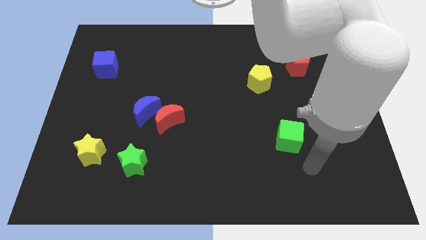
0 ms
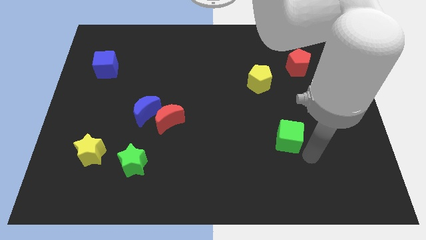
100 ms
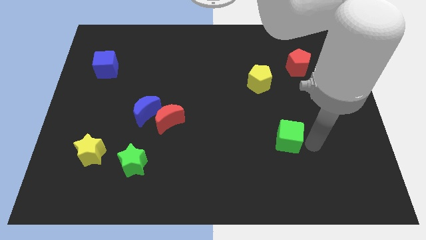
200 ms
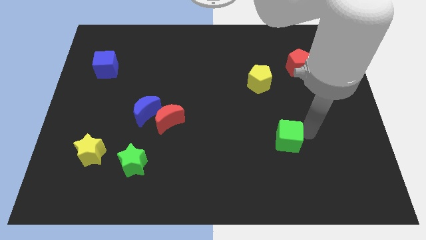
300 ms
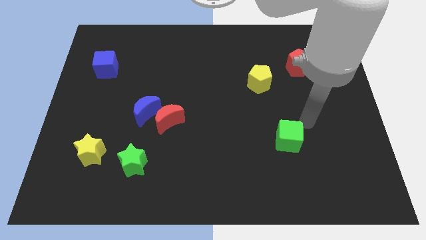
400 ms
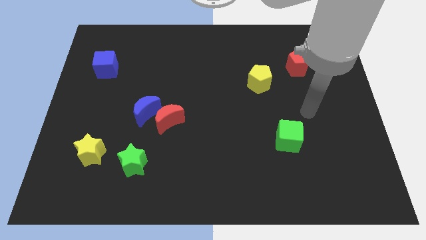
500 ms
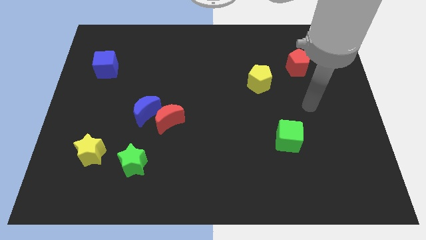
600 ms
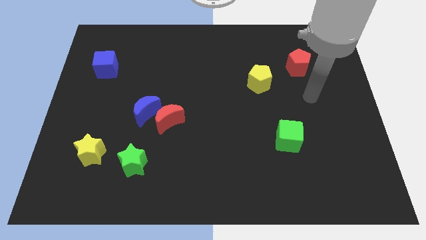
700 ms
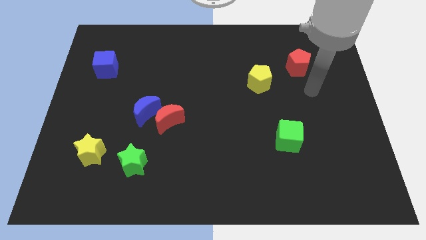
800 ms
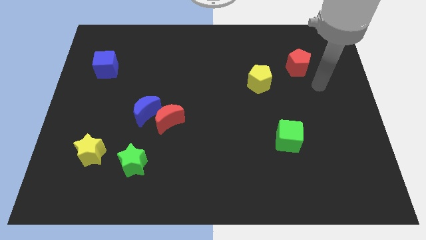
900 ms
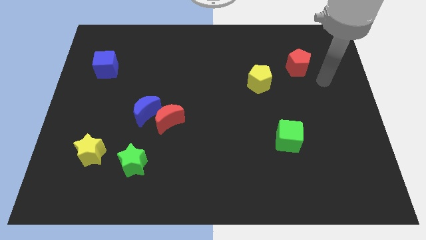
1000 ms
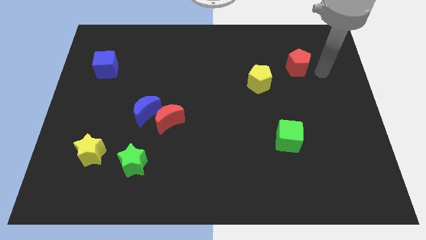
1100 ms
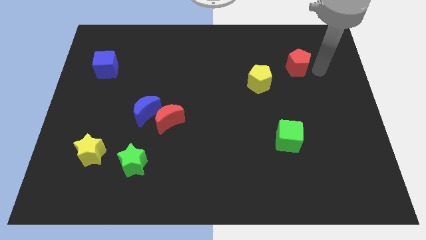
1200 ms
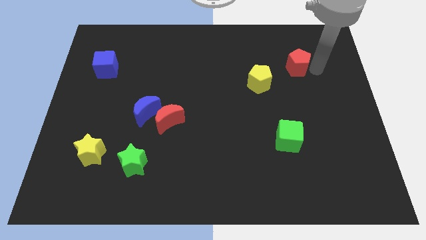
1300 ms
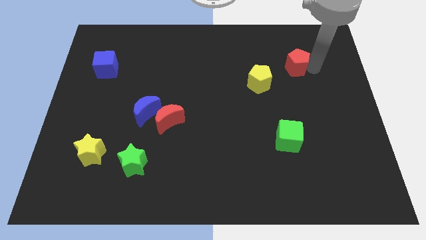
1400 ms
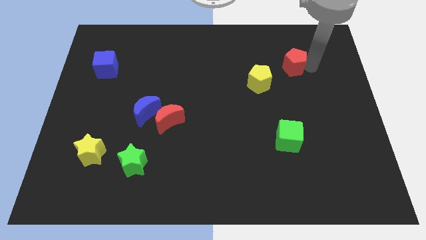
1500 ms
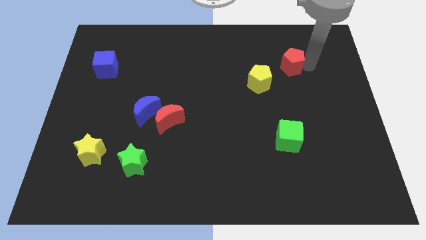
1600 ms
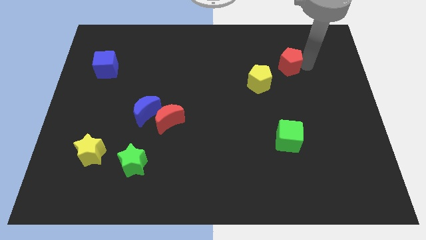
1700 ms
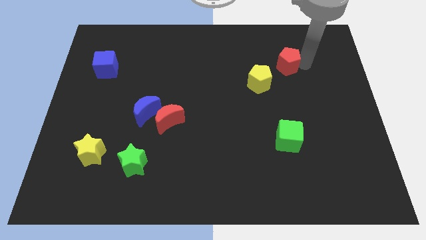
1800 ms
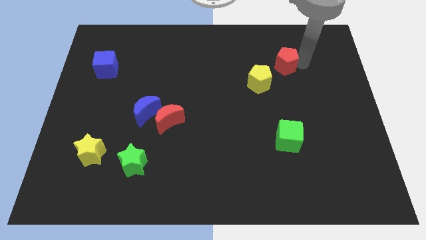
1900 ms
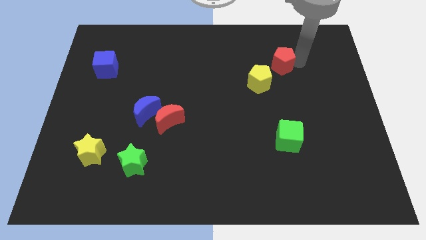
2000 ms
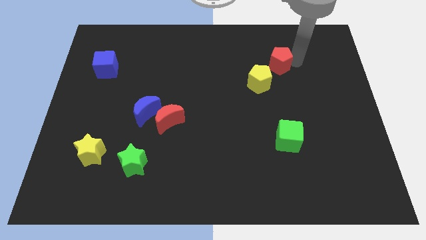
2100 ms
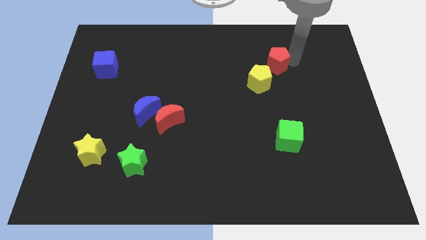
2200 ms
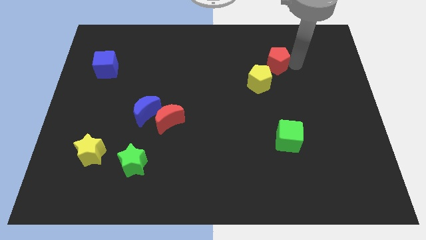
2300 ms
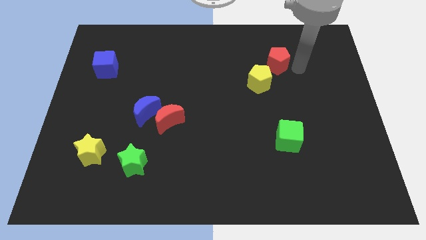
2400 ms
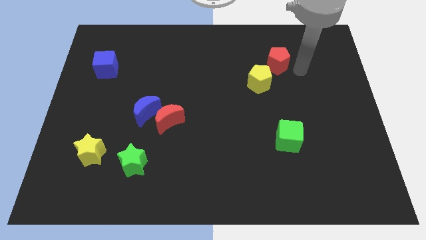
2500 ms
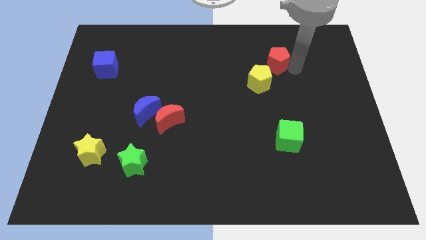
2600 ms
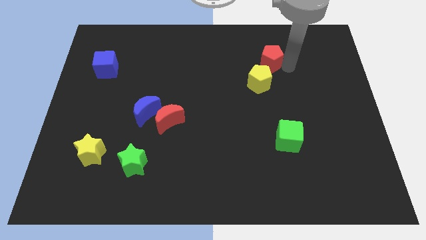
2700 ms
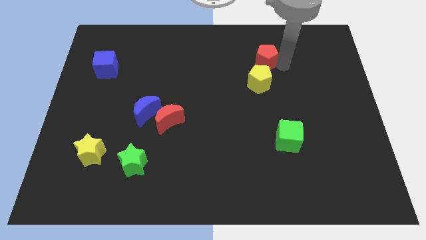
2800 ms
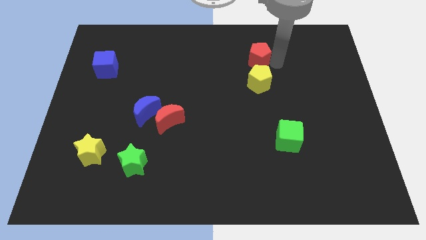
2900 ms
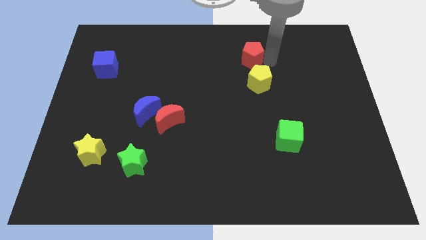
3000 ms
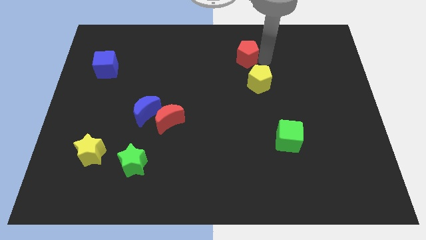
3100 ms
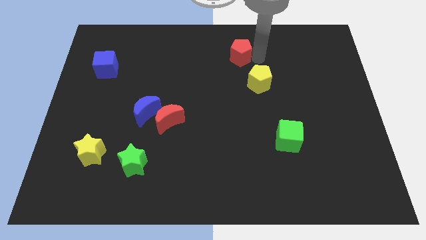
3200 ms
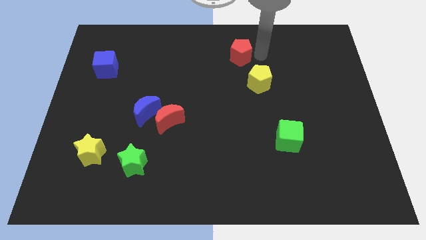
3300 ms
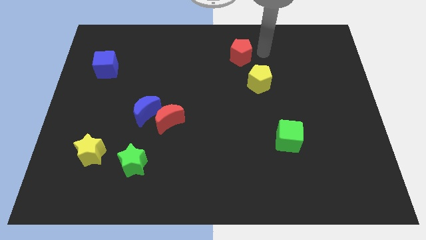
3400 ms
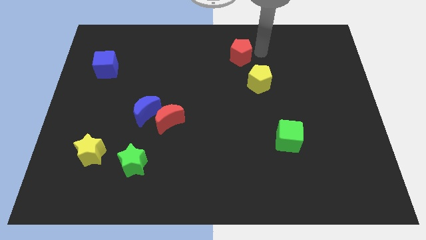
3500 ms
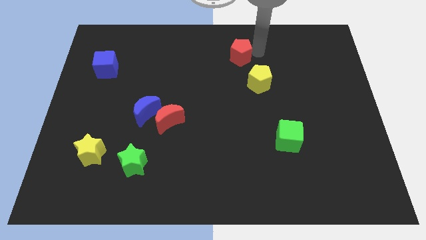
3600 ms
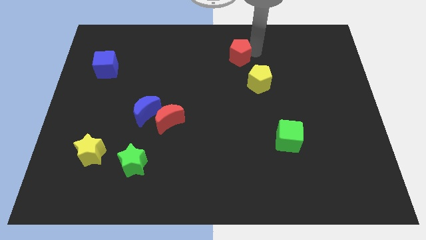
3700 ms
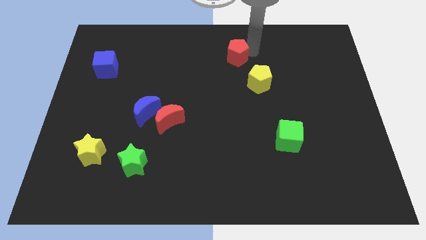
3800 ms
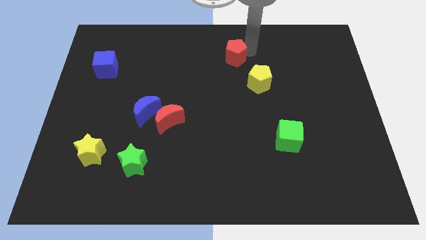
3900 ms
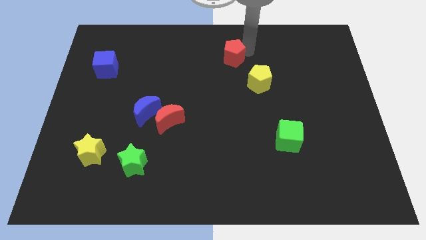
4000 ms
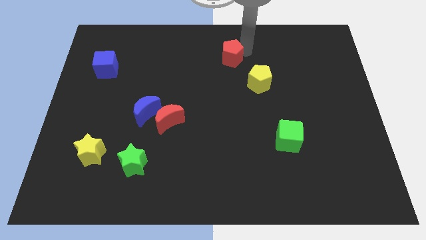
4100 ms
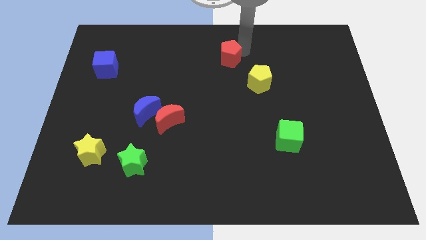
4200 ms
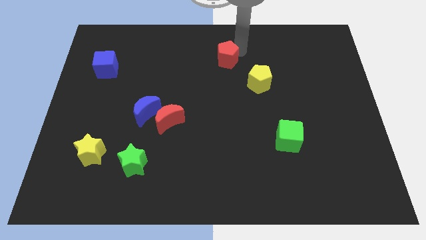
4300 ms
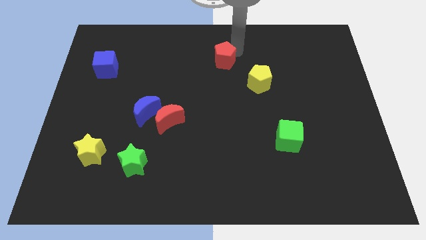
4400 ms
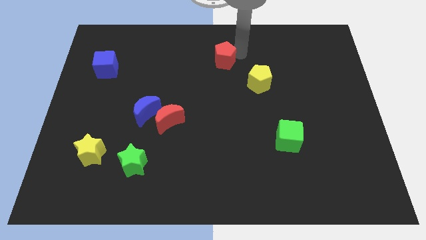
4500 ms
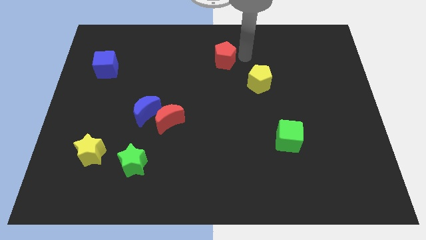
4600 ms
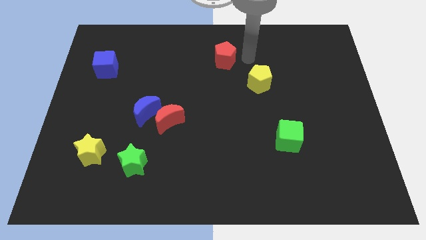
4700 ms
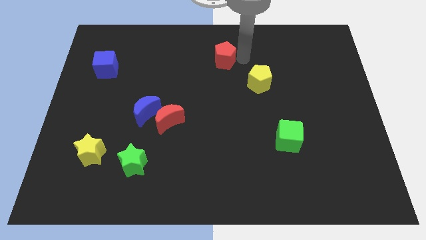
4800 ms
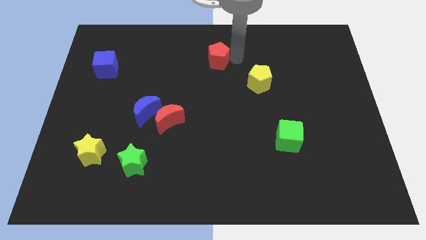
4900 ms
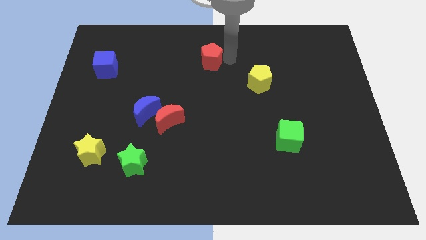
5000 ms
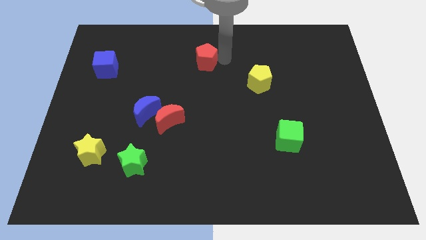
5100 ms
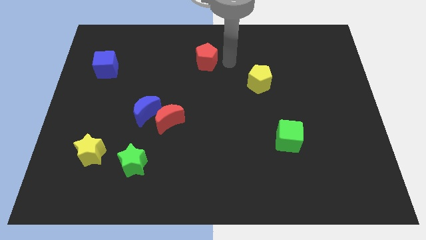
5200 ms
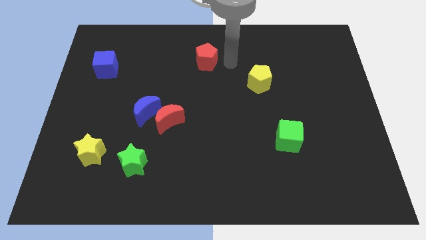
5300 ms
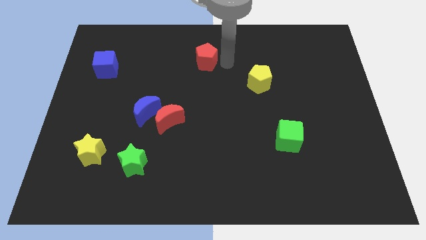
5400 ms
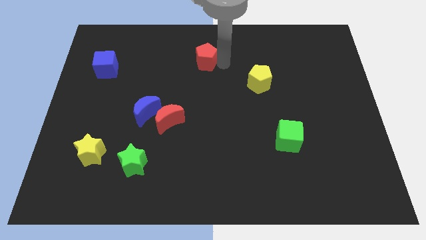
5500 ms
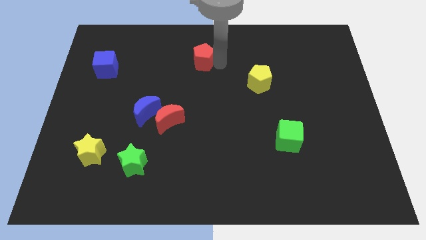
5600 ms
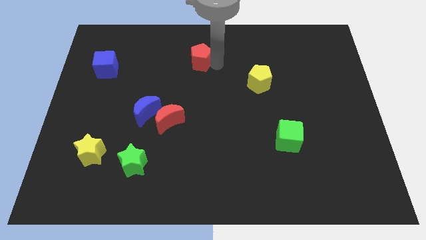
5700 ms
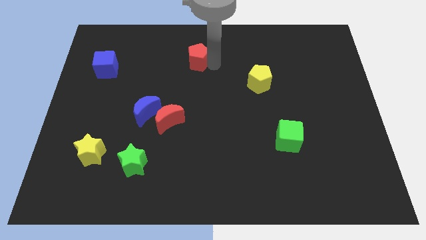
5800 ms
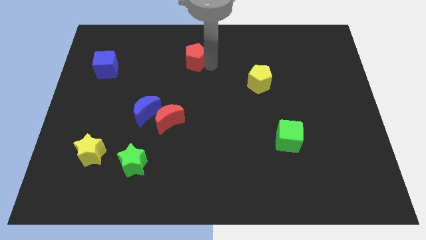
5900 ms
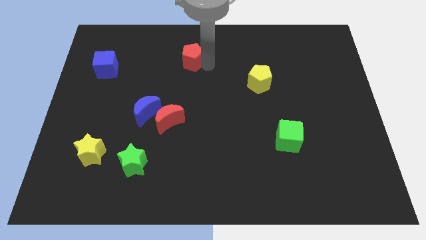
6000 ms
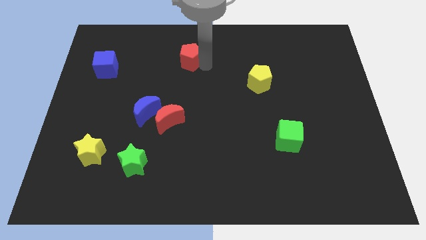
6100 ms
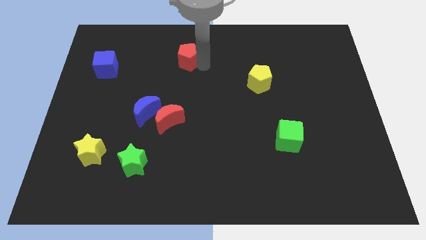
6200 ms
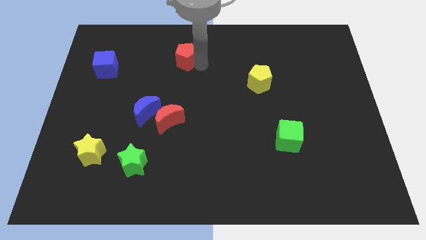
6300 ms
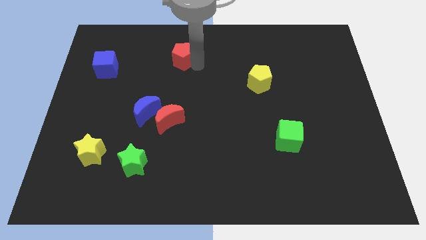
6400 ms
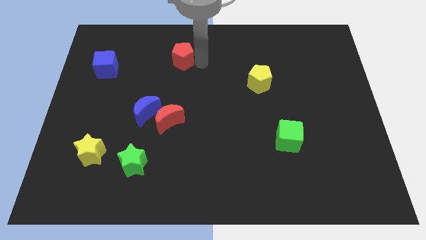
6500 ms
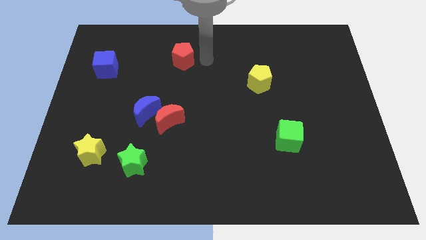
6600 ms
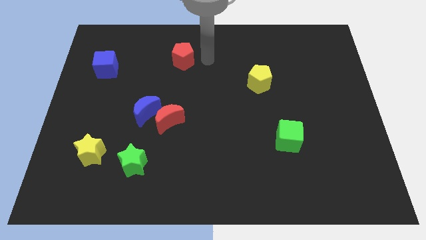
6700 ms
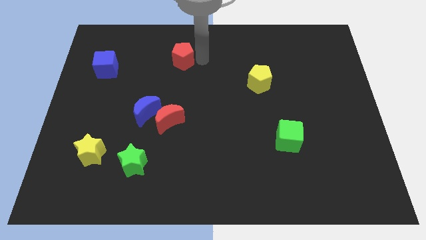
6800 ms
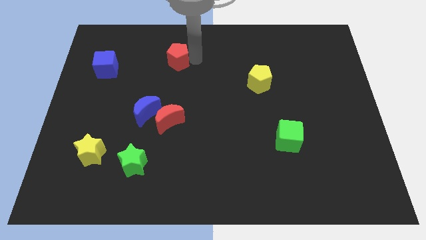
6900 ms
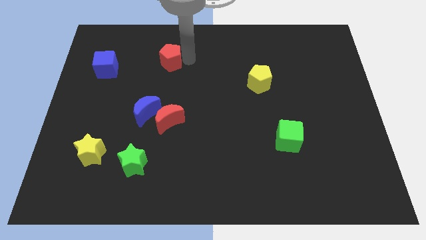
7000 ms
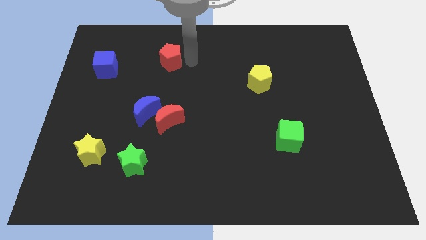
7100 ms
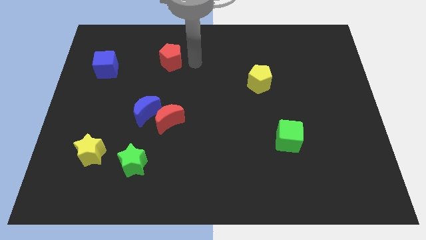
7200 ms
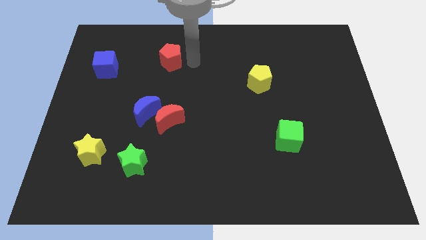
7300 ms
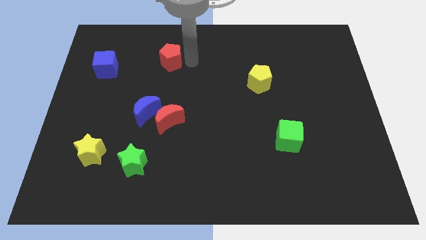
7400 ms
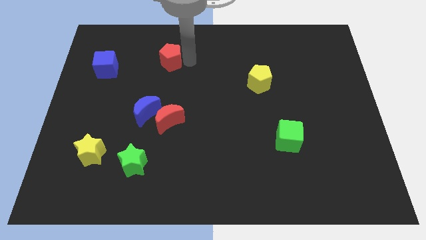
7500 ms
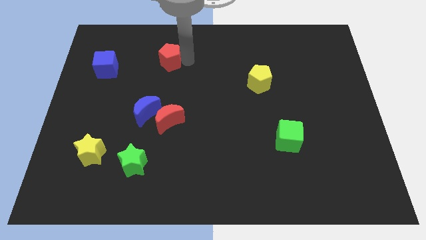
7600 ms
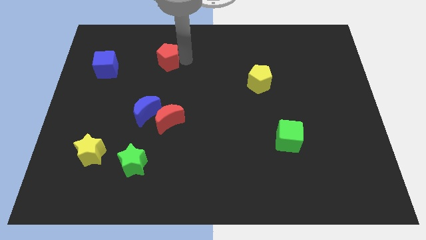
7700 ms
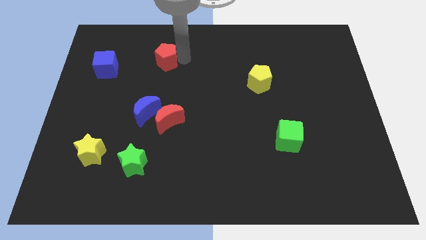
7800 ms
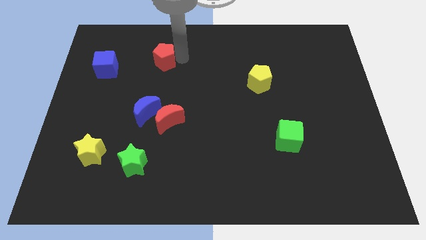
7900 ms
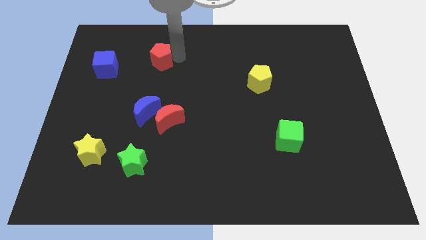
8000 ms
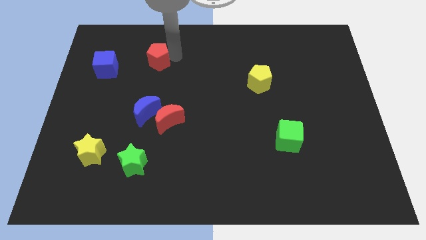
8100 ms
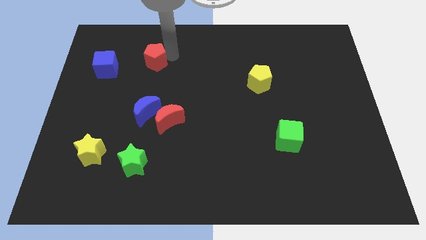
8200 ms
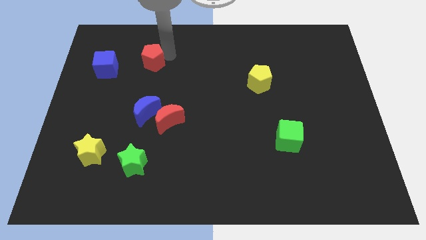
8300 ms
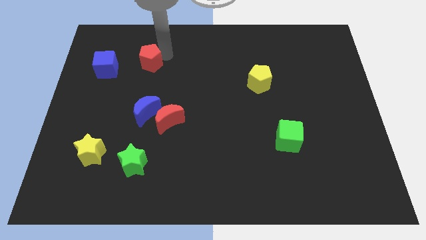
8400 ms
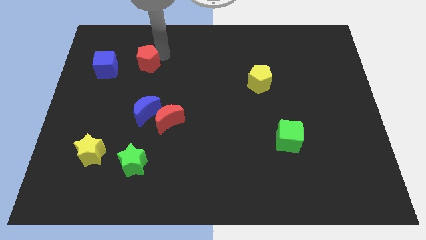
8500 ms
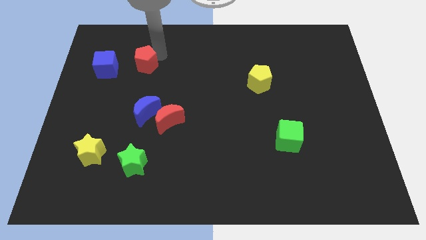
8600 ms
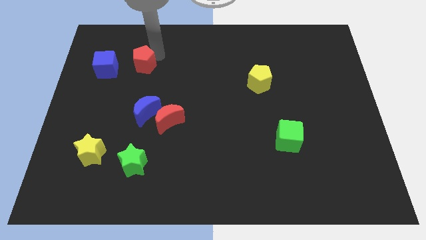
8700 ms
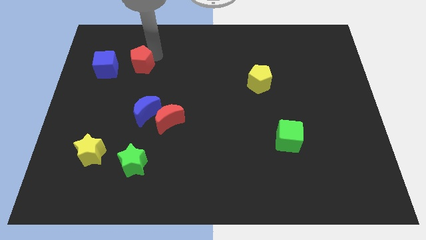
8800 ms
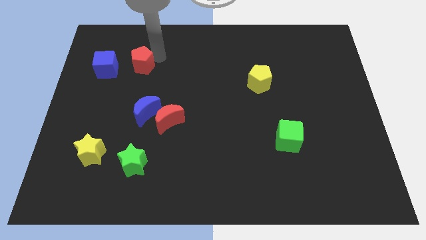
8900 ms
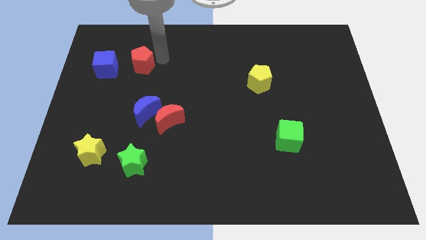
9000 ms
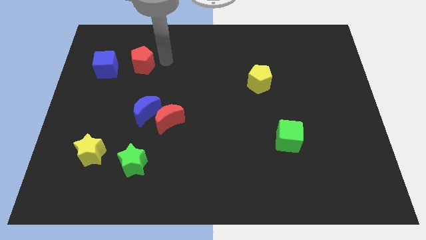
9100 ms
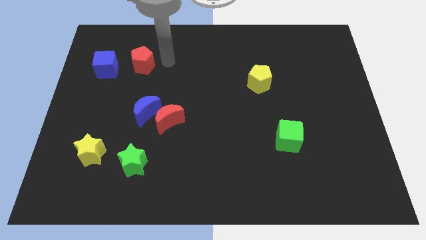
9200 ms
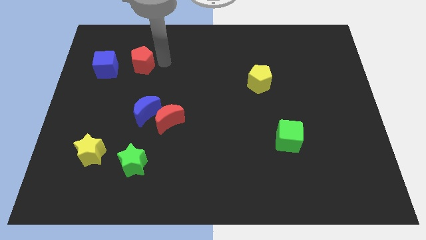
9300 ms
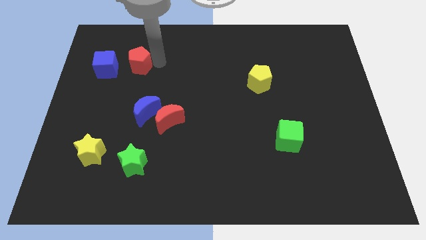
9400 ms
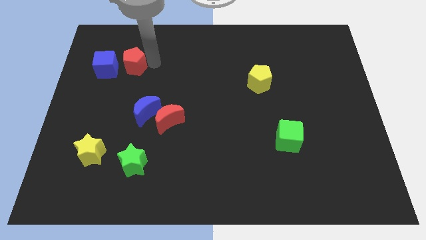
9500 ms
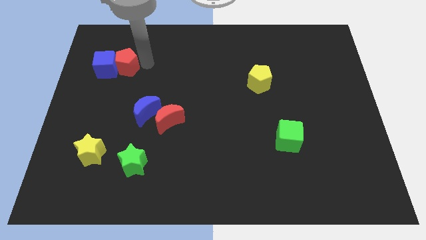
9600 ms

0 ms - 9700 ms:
move the red pentagon close to the blue cube
